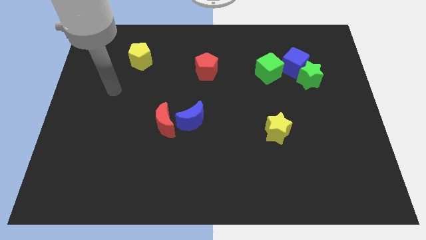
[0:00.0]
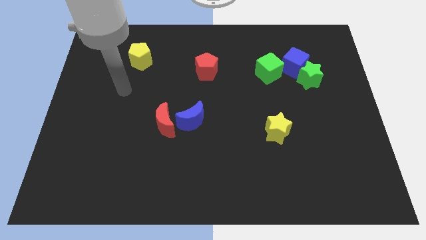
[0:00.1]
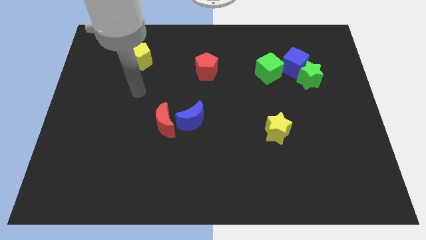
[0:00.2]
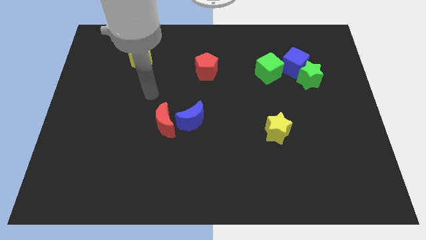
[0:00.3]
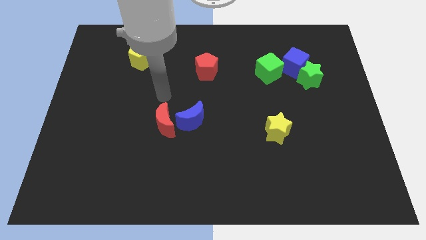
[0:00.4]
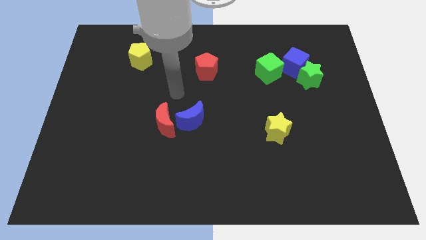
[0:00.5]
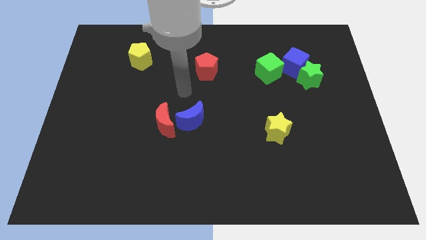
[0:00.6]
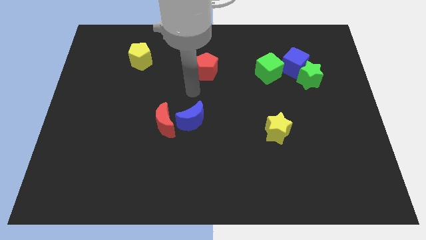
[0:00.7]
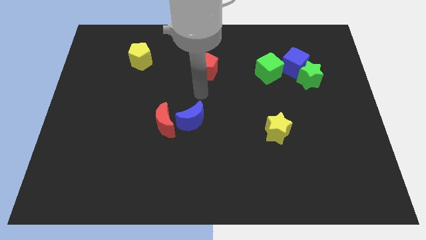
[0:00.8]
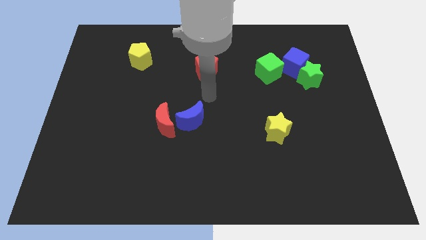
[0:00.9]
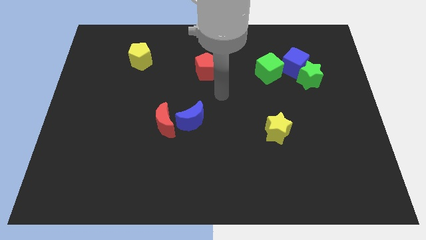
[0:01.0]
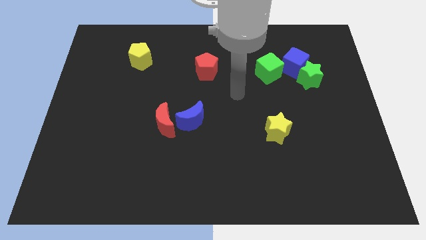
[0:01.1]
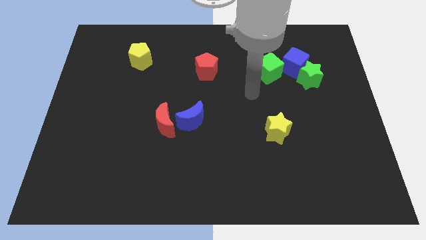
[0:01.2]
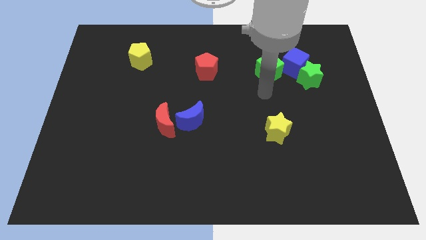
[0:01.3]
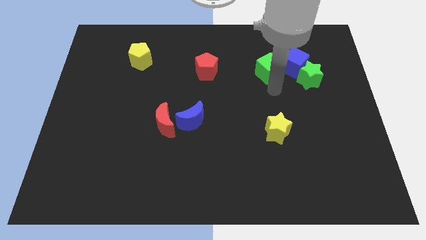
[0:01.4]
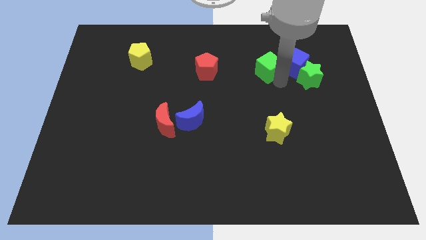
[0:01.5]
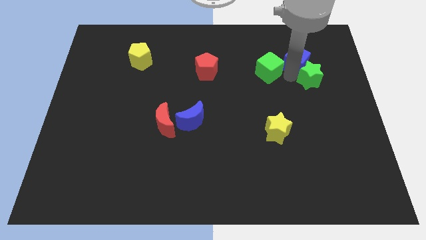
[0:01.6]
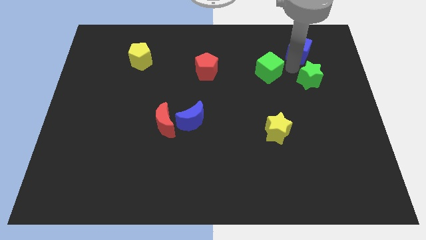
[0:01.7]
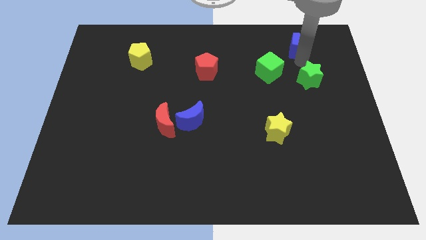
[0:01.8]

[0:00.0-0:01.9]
pull the green star apart from the blue cube

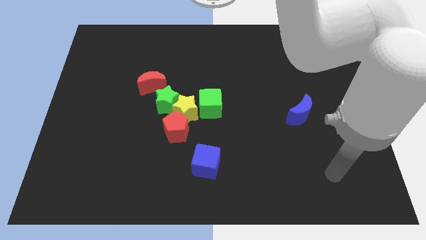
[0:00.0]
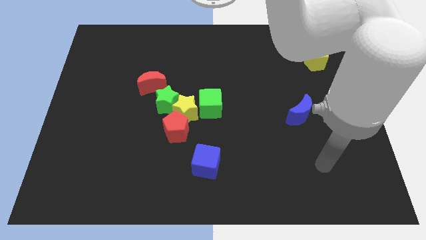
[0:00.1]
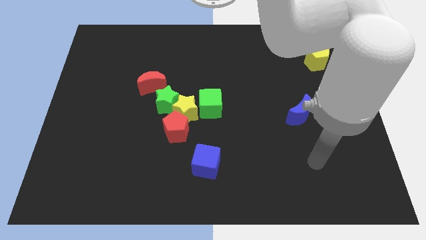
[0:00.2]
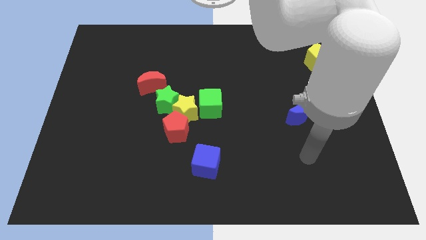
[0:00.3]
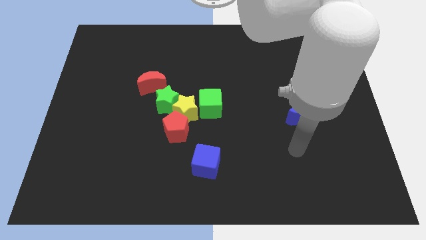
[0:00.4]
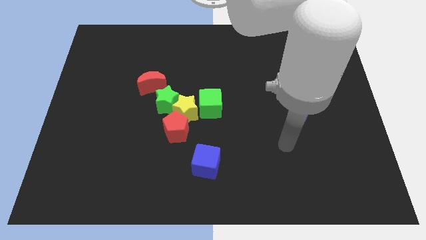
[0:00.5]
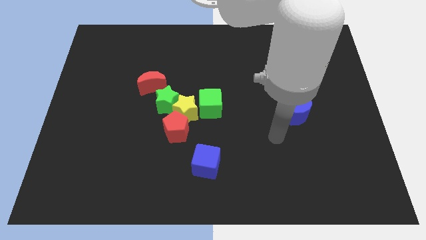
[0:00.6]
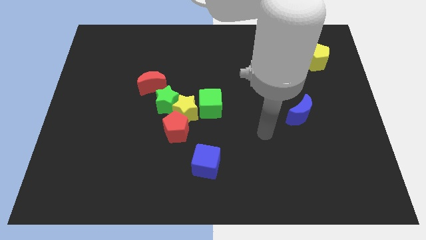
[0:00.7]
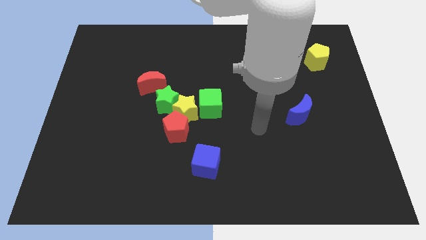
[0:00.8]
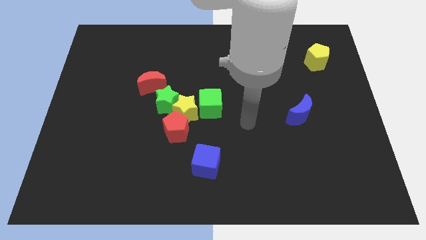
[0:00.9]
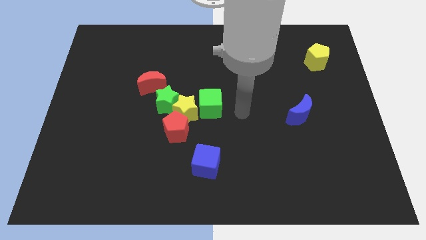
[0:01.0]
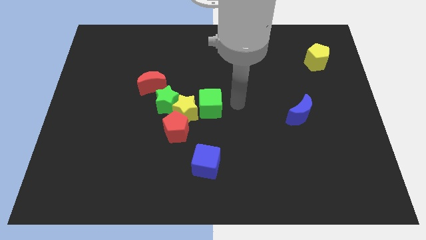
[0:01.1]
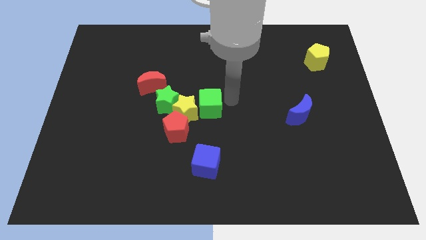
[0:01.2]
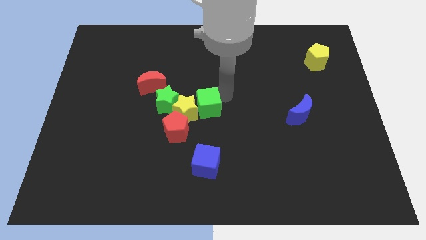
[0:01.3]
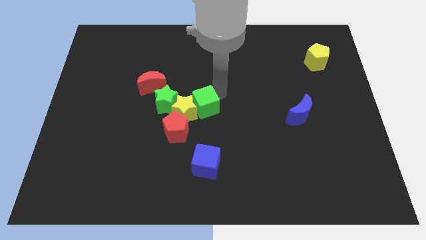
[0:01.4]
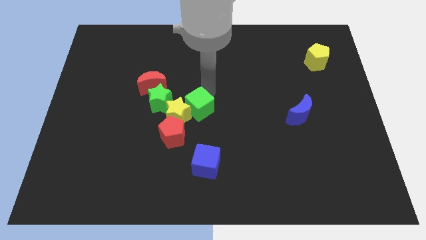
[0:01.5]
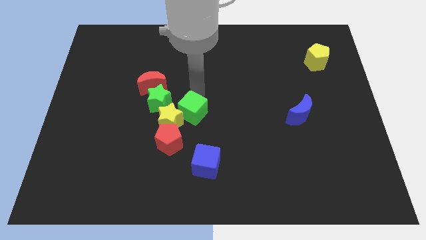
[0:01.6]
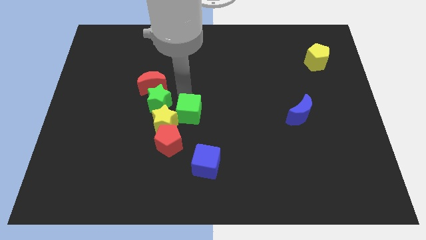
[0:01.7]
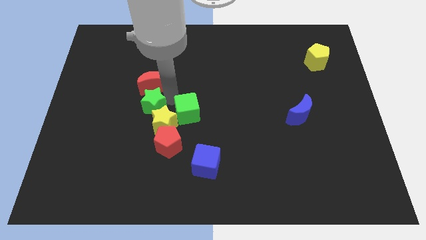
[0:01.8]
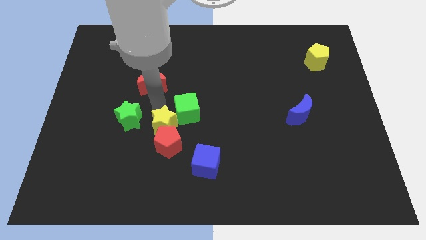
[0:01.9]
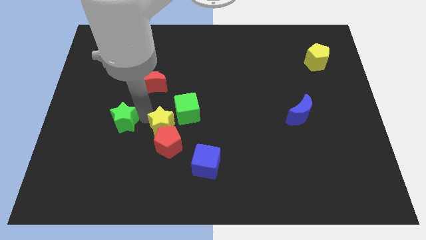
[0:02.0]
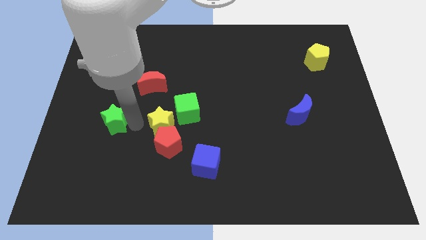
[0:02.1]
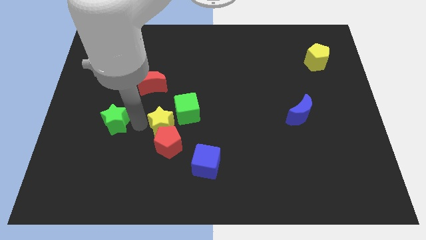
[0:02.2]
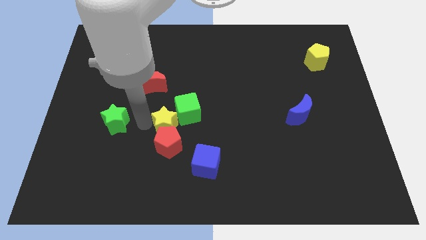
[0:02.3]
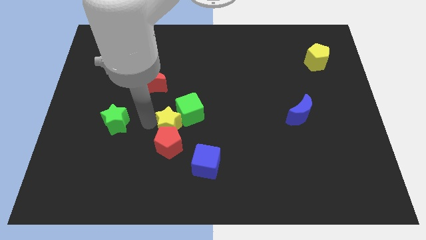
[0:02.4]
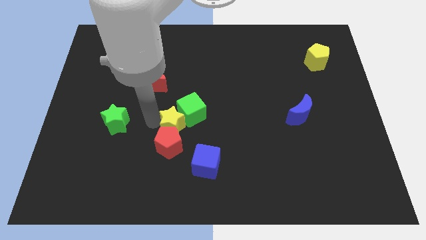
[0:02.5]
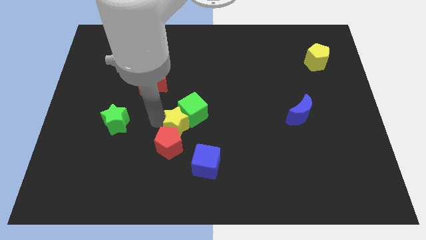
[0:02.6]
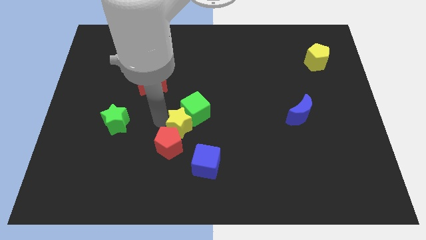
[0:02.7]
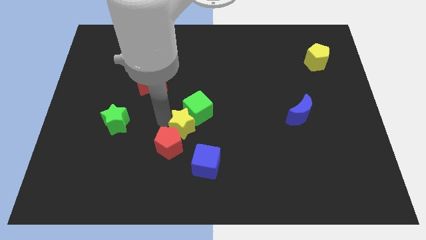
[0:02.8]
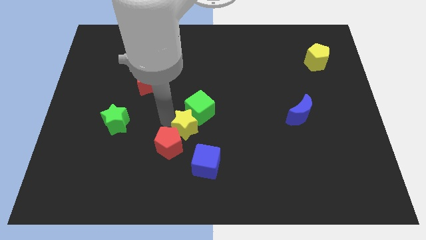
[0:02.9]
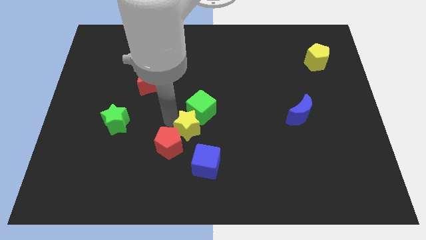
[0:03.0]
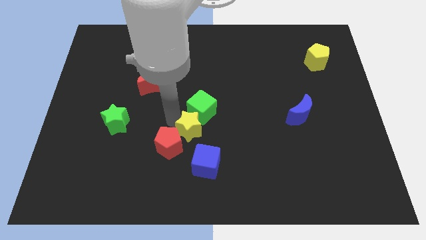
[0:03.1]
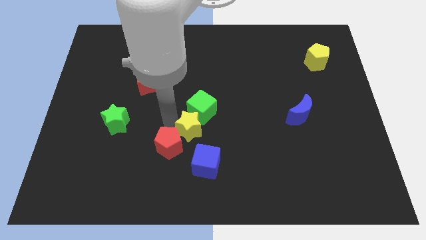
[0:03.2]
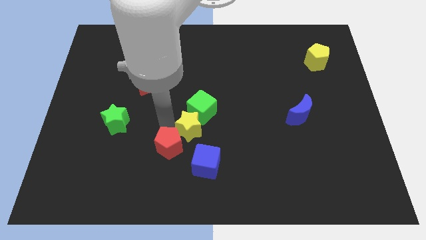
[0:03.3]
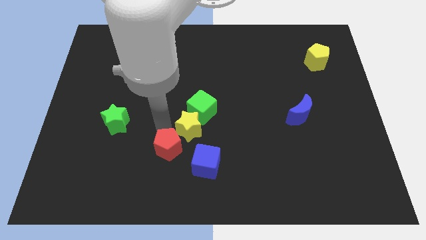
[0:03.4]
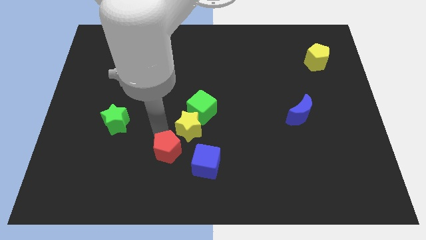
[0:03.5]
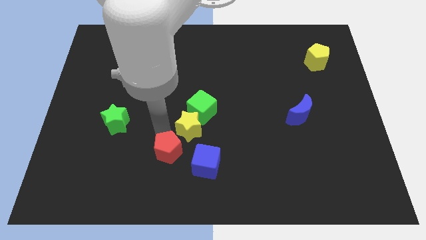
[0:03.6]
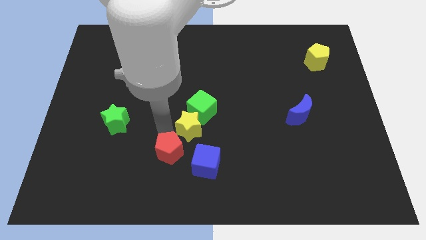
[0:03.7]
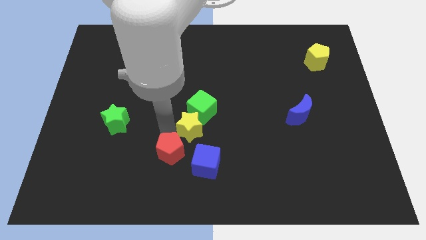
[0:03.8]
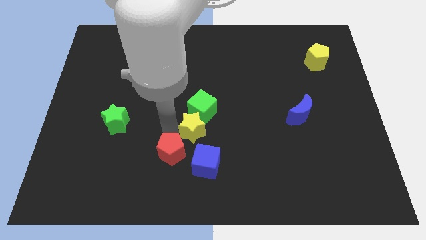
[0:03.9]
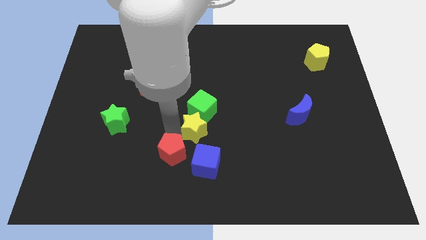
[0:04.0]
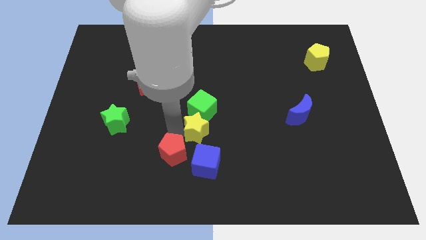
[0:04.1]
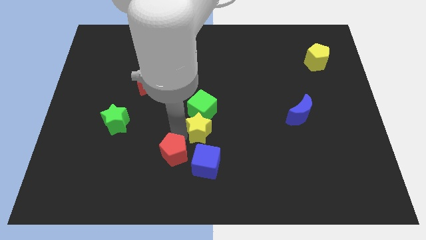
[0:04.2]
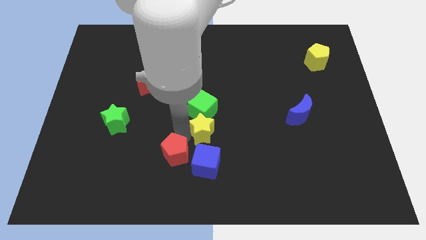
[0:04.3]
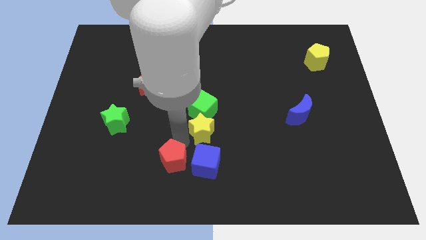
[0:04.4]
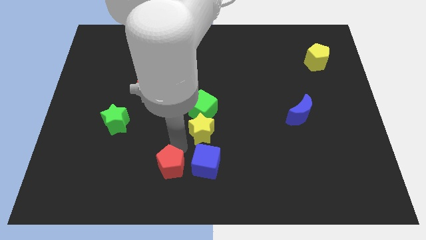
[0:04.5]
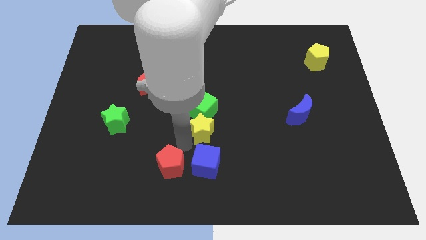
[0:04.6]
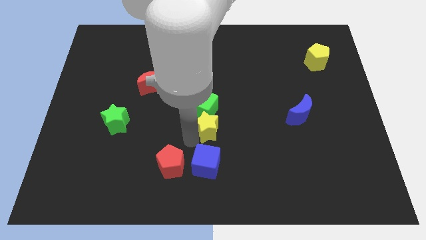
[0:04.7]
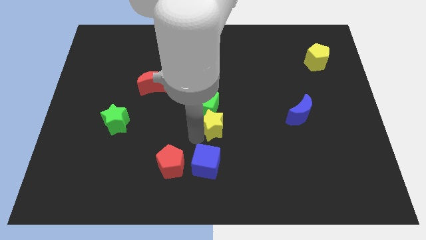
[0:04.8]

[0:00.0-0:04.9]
move the yellow star away from the group

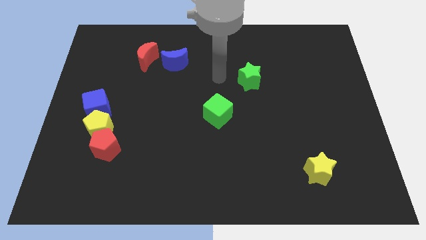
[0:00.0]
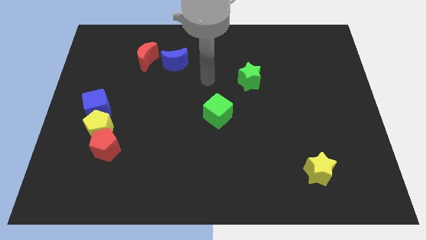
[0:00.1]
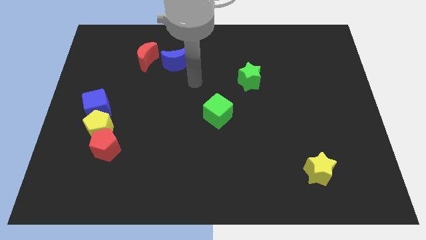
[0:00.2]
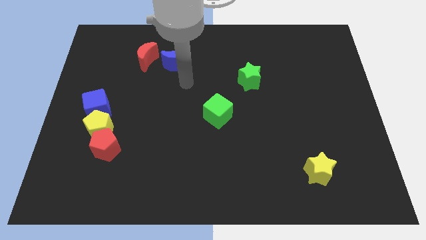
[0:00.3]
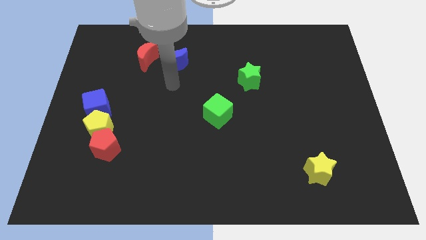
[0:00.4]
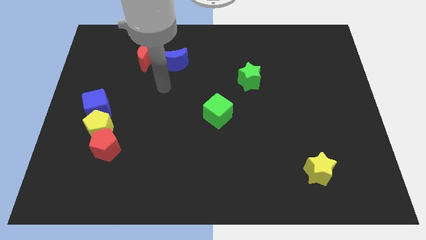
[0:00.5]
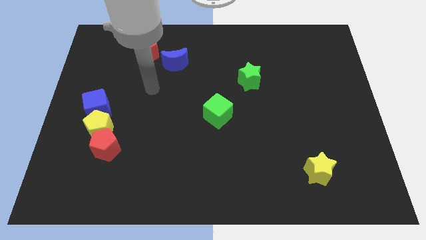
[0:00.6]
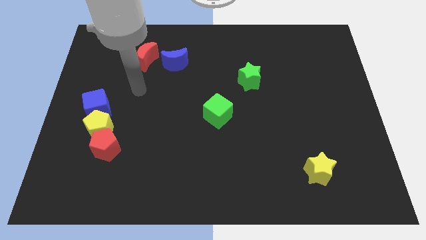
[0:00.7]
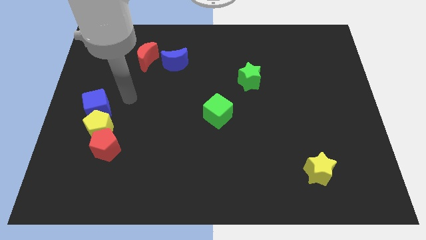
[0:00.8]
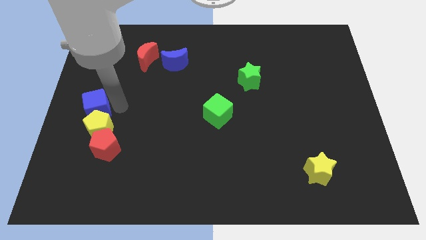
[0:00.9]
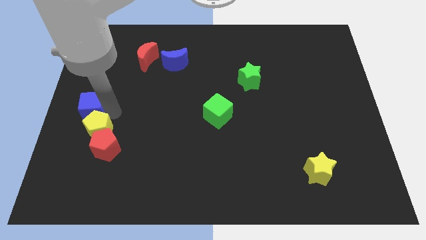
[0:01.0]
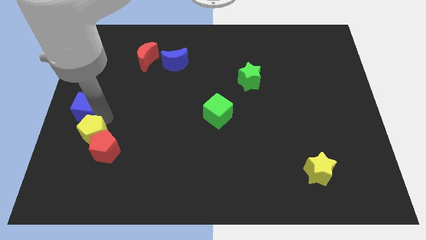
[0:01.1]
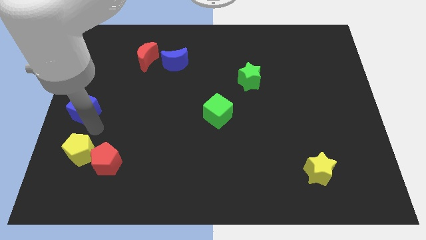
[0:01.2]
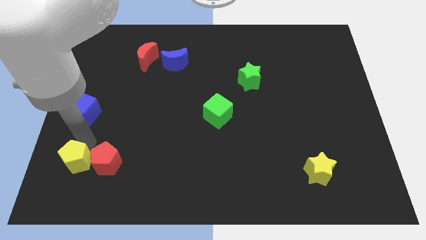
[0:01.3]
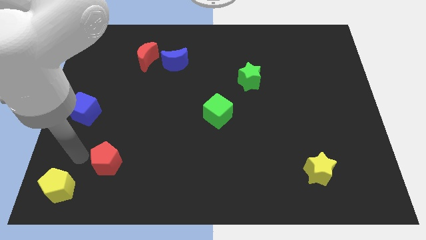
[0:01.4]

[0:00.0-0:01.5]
move the red pentagon away from the yellow pentagon

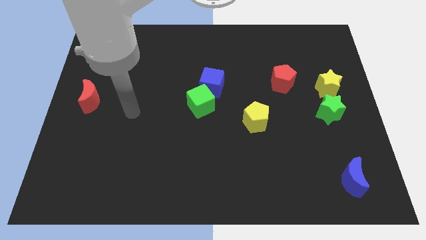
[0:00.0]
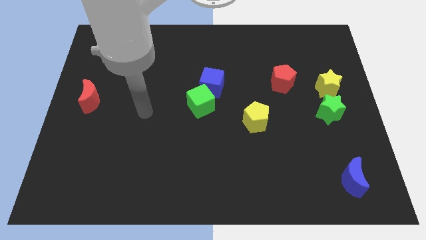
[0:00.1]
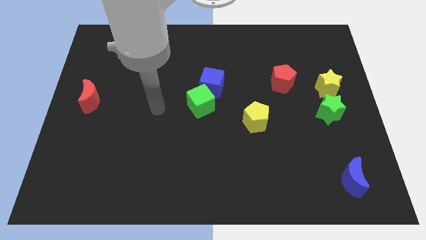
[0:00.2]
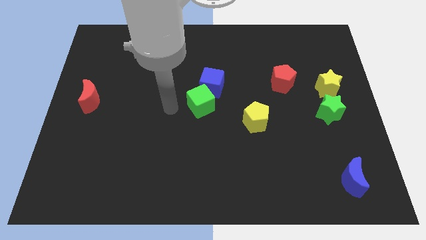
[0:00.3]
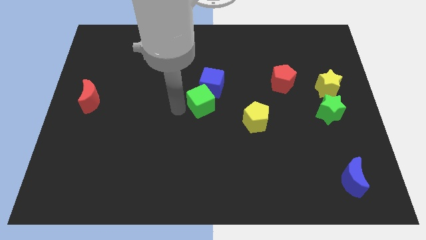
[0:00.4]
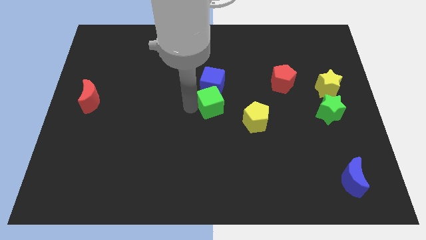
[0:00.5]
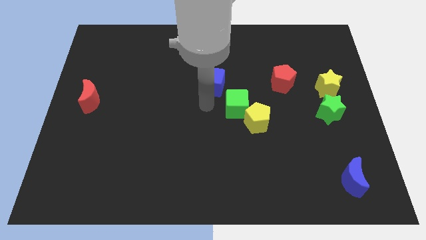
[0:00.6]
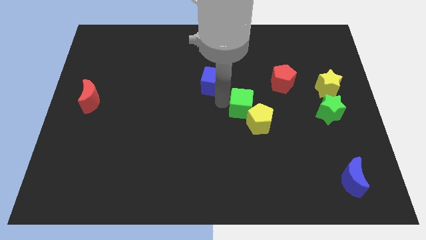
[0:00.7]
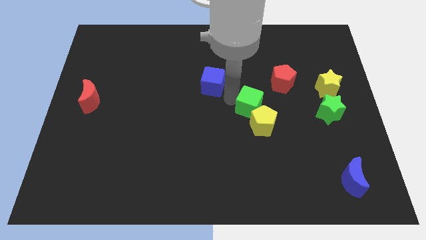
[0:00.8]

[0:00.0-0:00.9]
pull the blue cube apart from the green cube

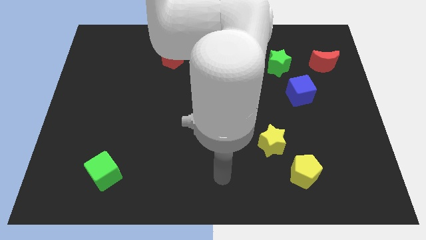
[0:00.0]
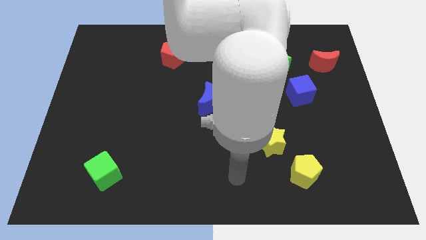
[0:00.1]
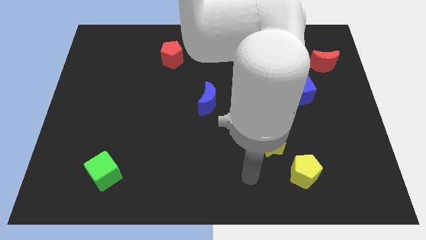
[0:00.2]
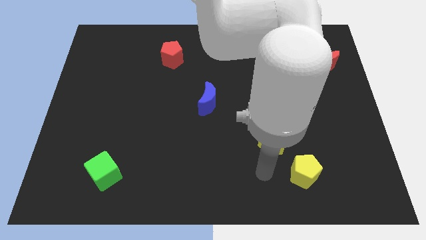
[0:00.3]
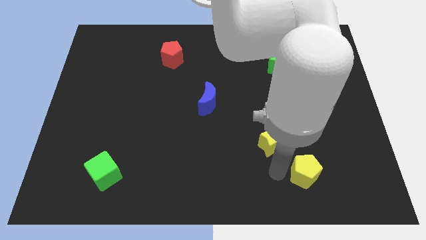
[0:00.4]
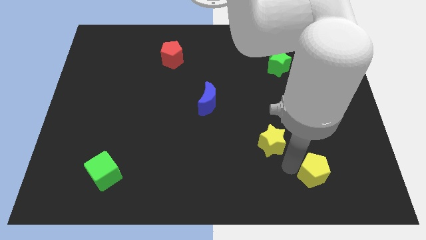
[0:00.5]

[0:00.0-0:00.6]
move the yellow star away from the yellow pentagon
